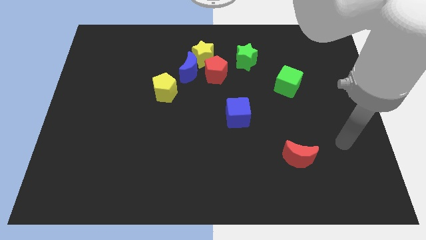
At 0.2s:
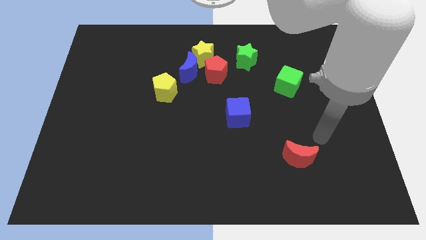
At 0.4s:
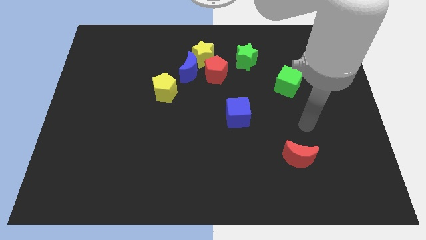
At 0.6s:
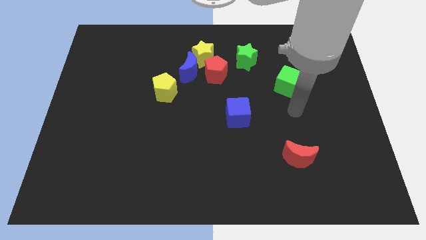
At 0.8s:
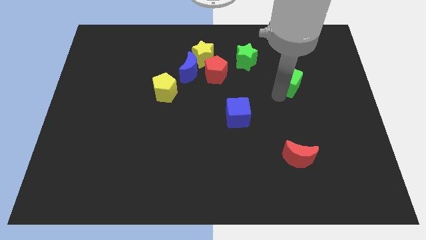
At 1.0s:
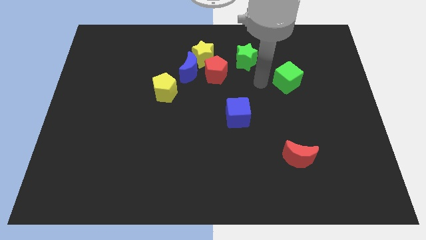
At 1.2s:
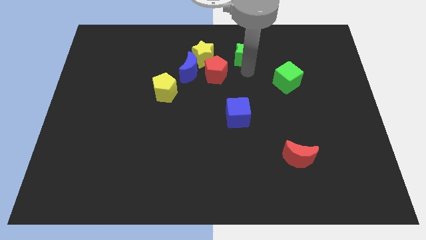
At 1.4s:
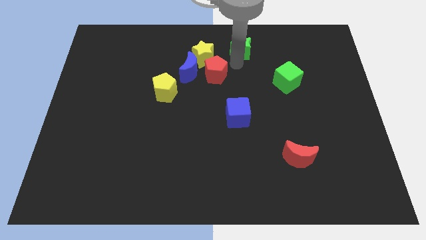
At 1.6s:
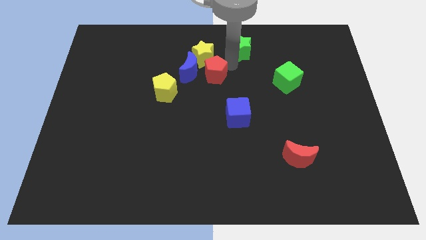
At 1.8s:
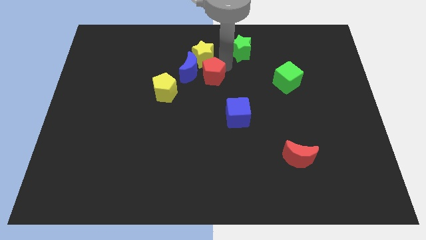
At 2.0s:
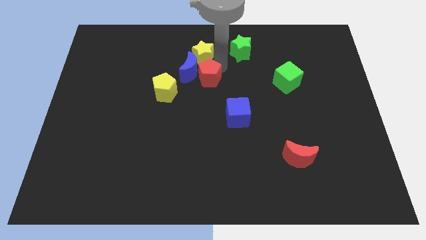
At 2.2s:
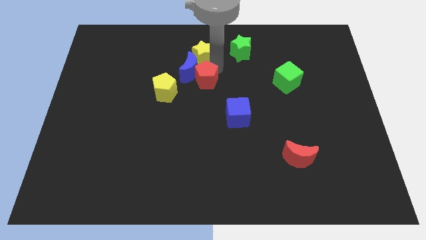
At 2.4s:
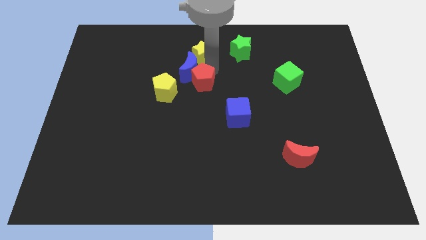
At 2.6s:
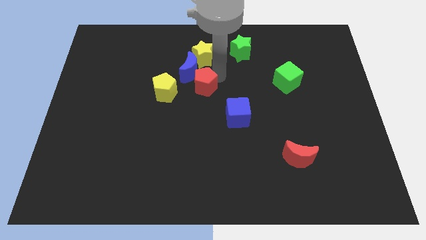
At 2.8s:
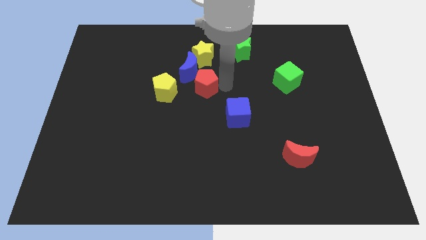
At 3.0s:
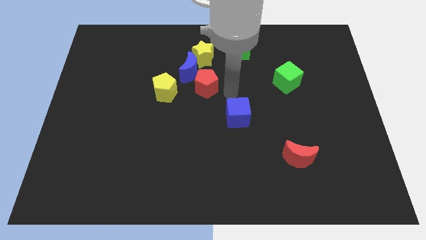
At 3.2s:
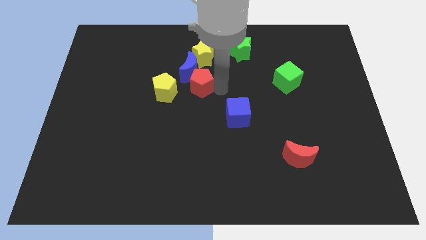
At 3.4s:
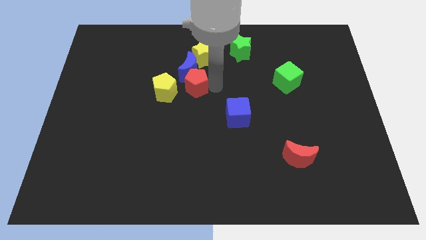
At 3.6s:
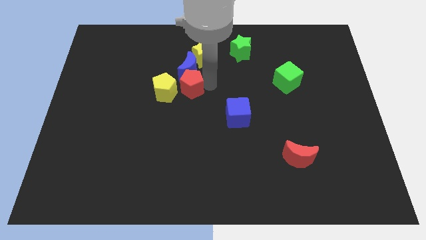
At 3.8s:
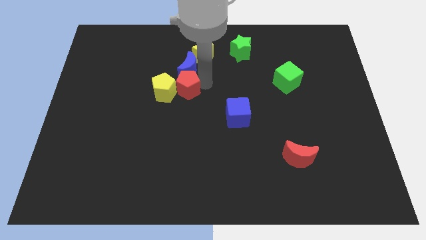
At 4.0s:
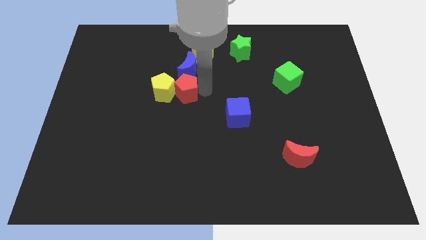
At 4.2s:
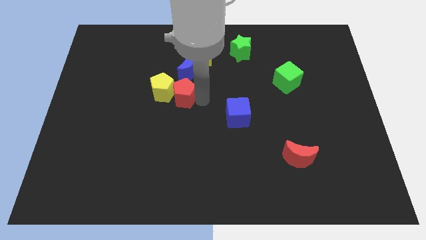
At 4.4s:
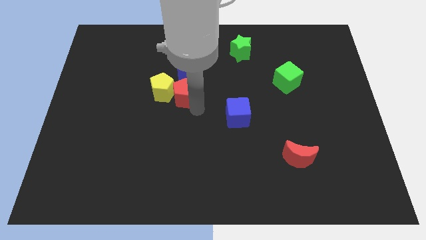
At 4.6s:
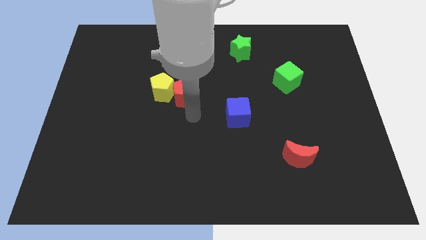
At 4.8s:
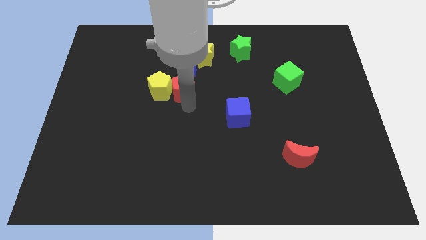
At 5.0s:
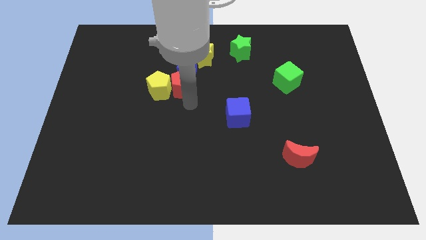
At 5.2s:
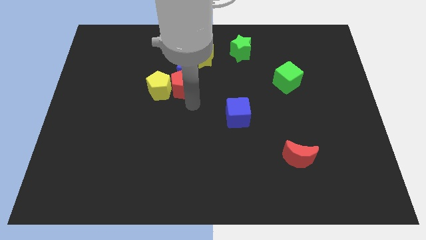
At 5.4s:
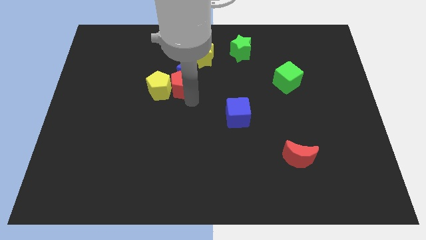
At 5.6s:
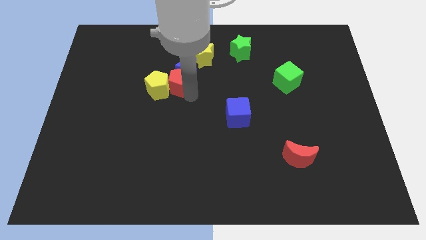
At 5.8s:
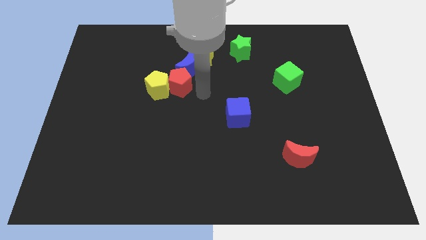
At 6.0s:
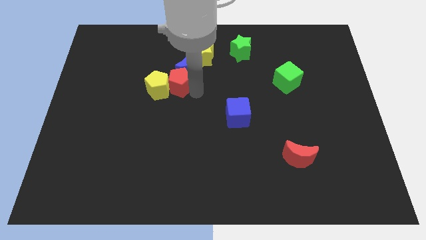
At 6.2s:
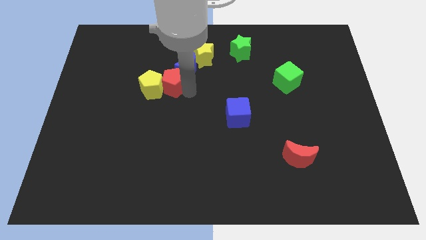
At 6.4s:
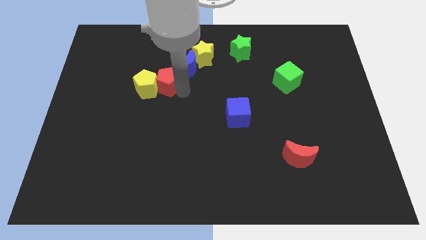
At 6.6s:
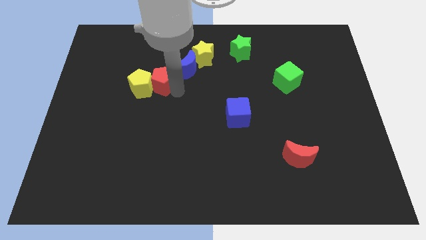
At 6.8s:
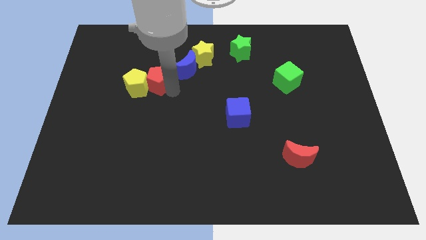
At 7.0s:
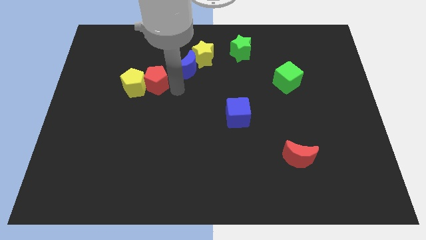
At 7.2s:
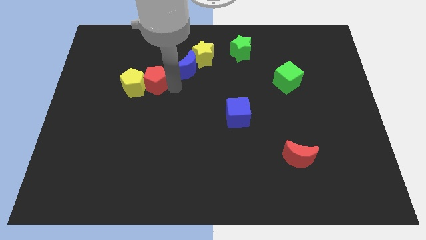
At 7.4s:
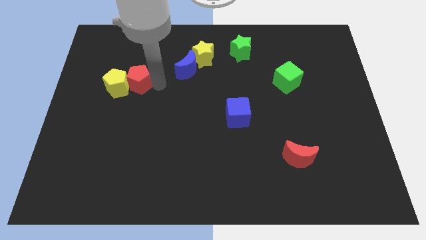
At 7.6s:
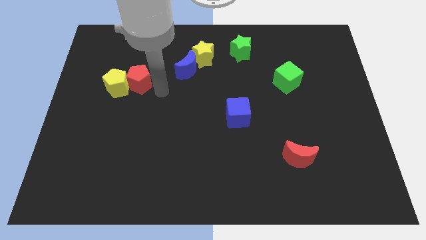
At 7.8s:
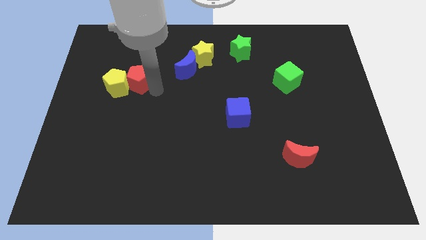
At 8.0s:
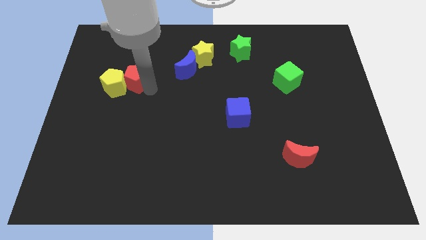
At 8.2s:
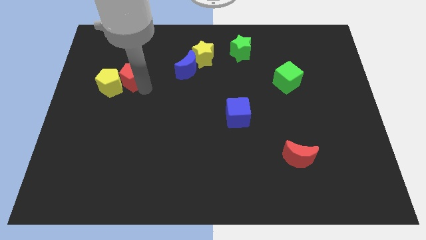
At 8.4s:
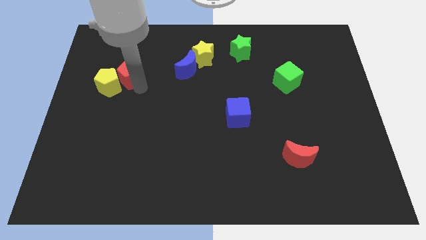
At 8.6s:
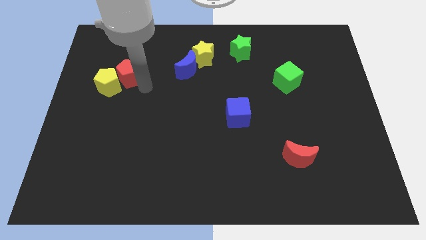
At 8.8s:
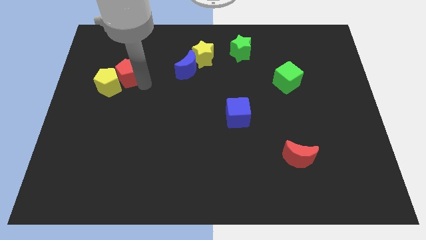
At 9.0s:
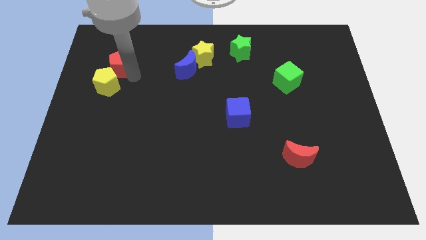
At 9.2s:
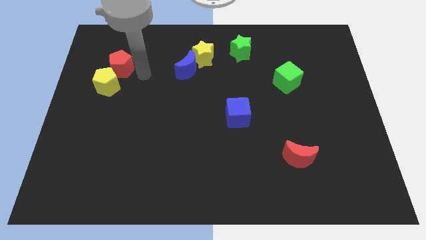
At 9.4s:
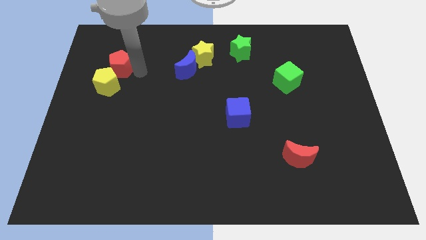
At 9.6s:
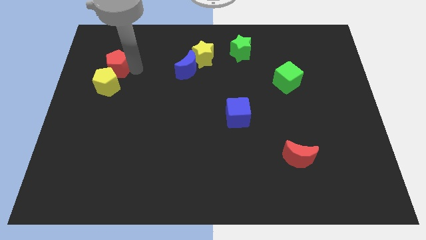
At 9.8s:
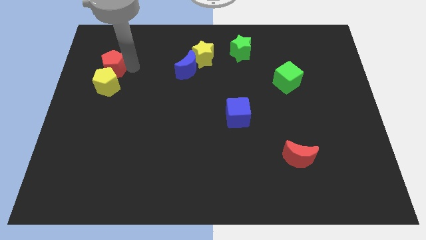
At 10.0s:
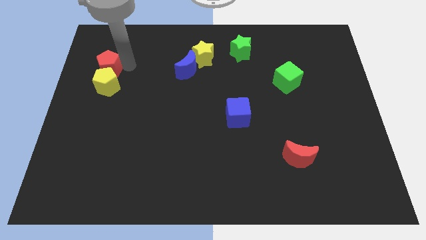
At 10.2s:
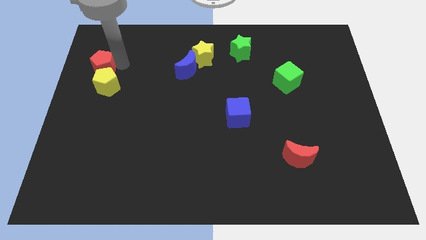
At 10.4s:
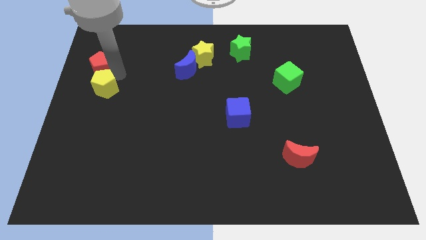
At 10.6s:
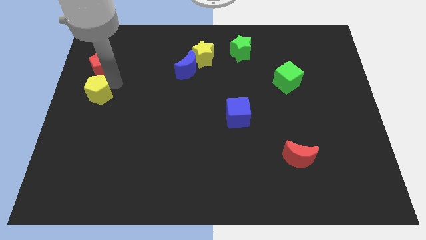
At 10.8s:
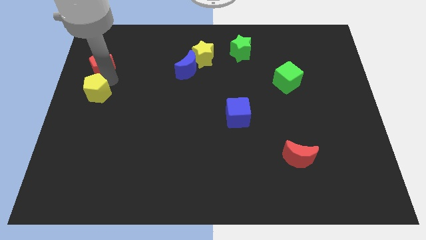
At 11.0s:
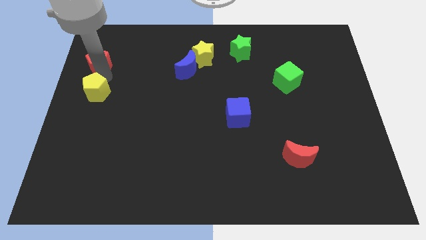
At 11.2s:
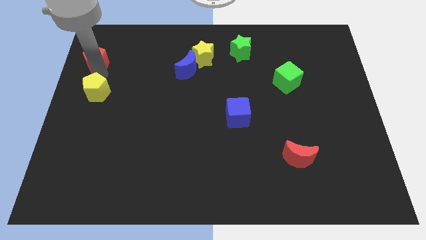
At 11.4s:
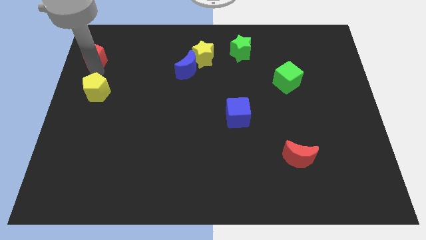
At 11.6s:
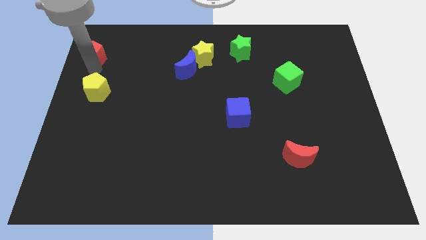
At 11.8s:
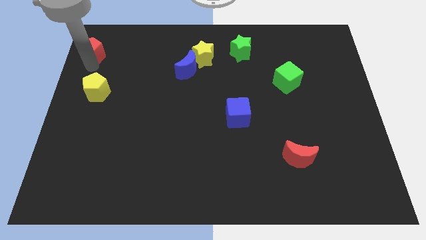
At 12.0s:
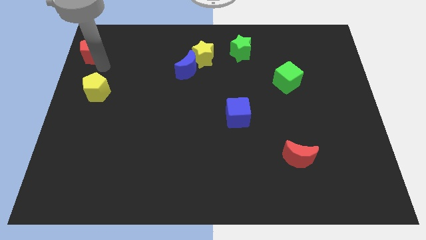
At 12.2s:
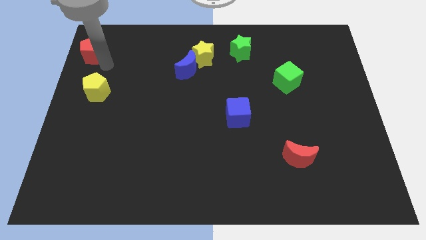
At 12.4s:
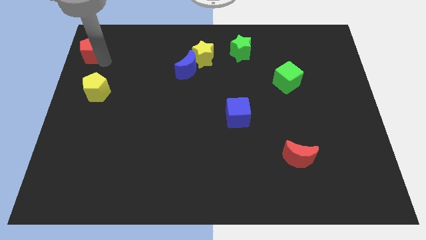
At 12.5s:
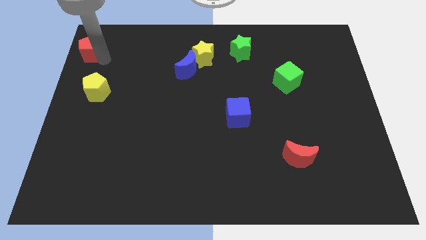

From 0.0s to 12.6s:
put the red pentagon to the top left of the board

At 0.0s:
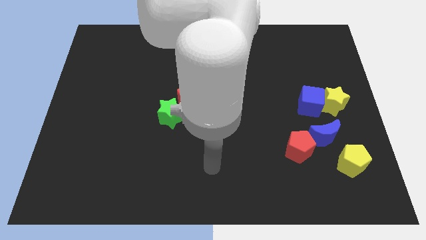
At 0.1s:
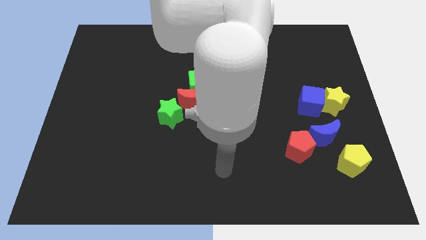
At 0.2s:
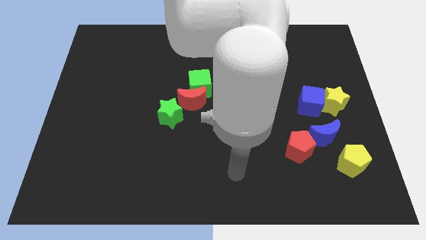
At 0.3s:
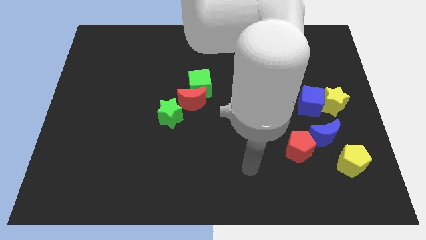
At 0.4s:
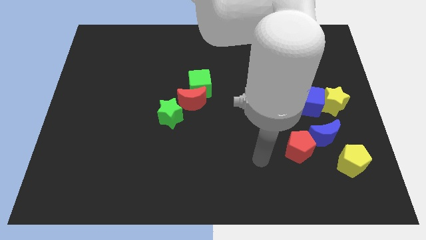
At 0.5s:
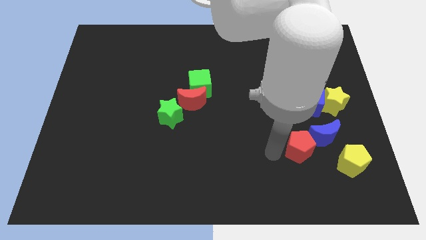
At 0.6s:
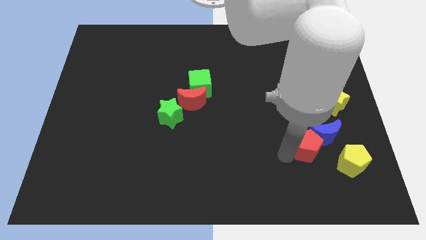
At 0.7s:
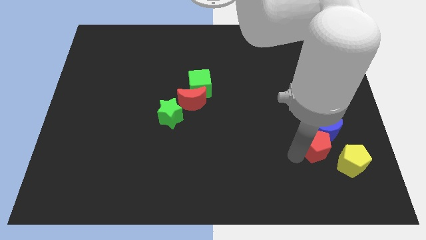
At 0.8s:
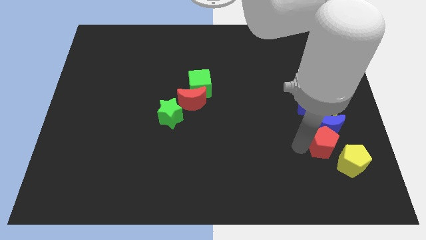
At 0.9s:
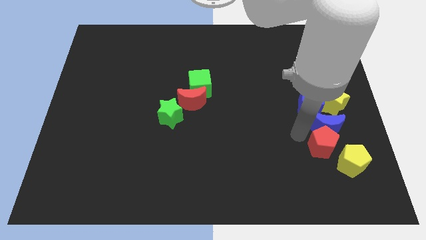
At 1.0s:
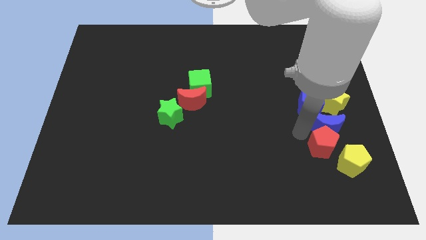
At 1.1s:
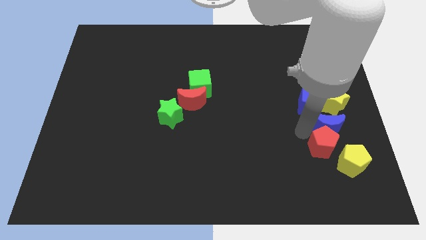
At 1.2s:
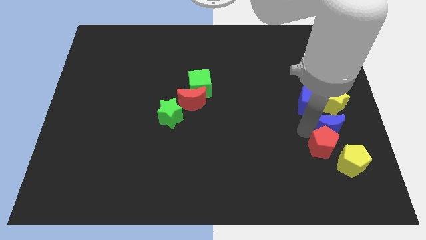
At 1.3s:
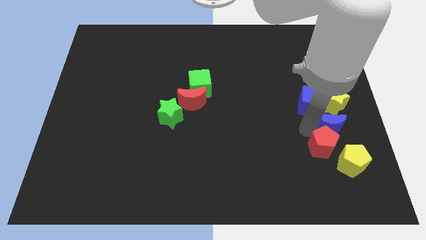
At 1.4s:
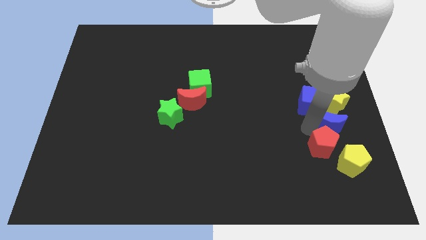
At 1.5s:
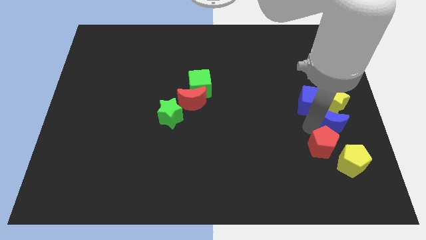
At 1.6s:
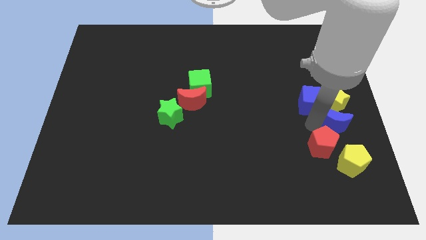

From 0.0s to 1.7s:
slide the blue moon to the center right
